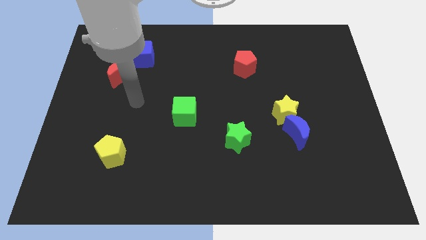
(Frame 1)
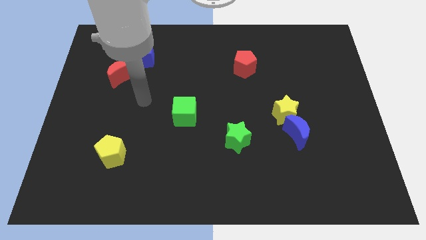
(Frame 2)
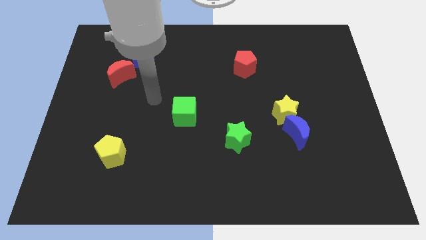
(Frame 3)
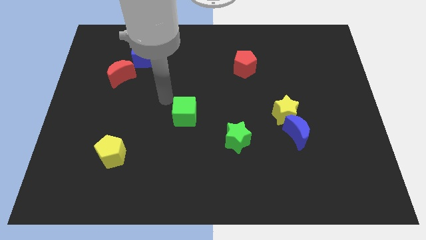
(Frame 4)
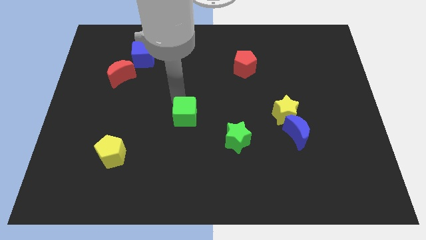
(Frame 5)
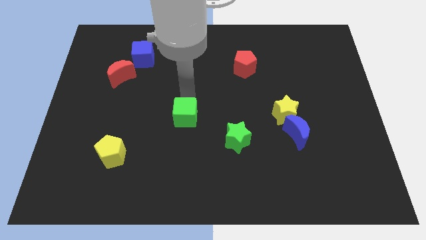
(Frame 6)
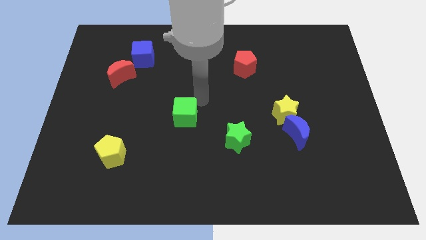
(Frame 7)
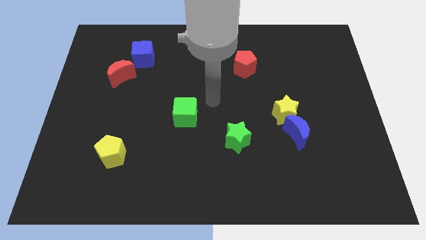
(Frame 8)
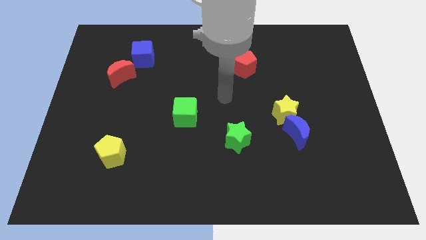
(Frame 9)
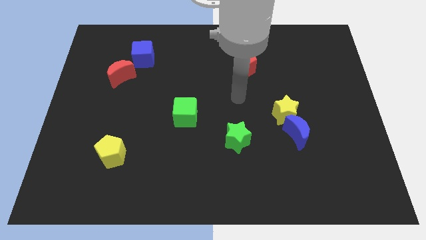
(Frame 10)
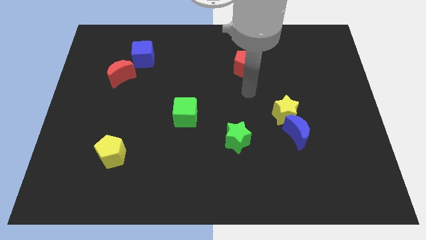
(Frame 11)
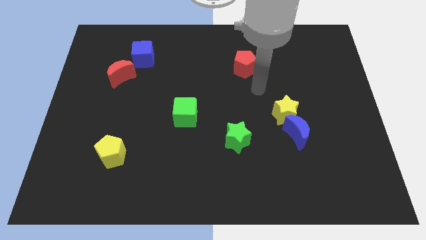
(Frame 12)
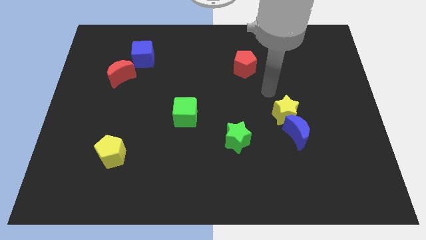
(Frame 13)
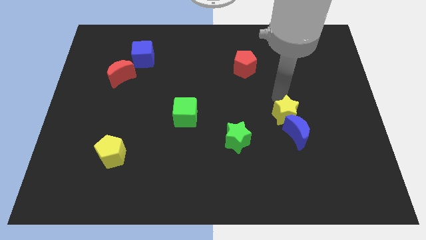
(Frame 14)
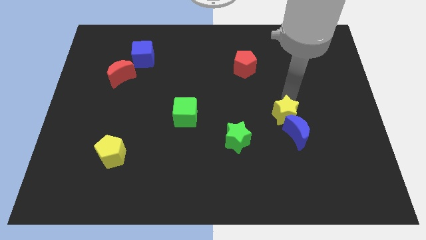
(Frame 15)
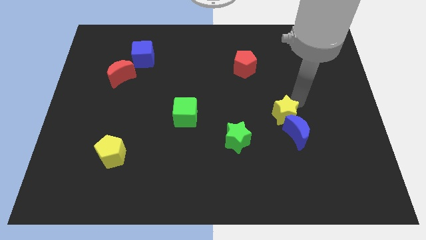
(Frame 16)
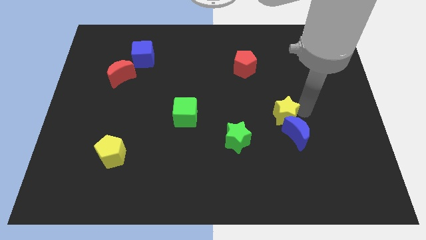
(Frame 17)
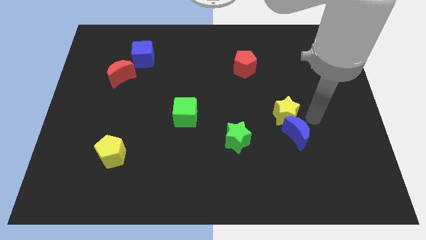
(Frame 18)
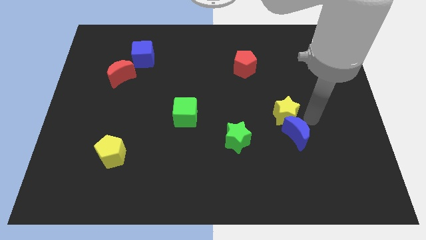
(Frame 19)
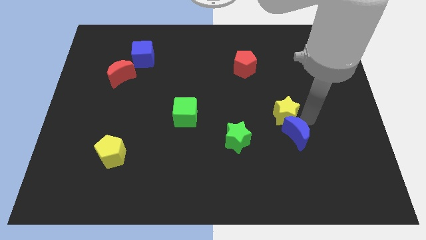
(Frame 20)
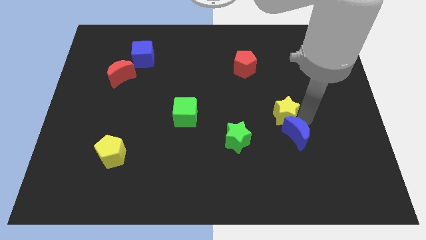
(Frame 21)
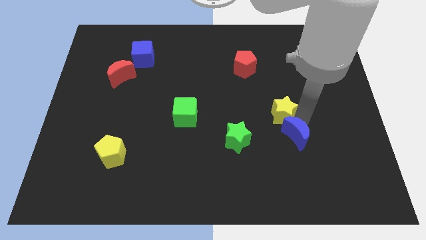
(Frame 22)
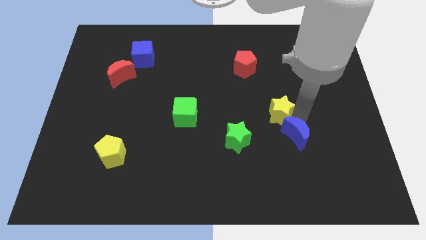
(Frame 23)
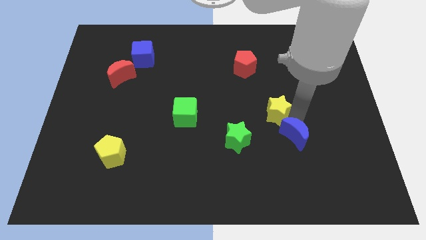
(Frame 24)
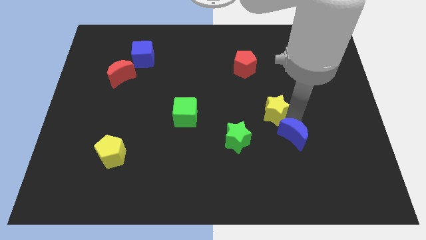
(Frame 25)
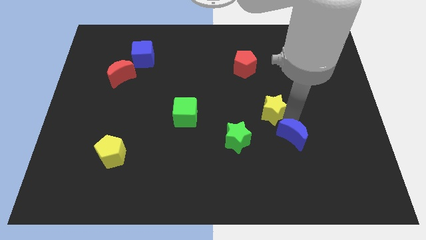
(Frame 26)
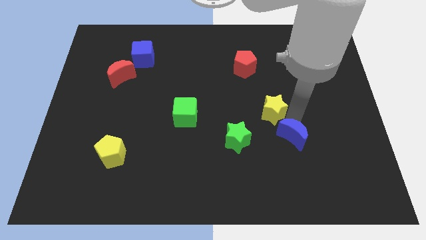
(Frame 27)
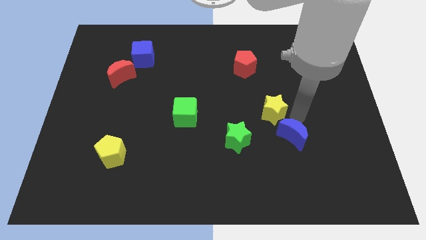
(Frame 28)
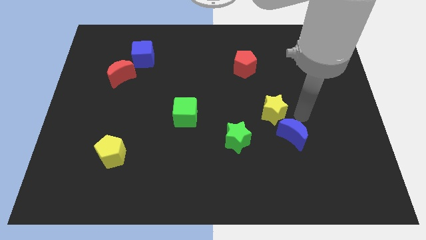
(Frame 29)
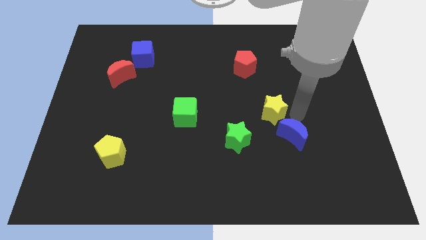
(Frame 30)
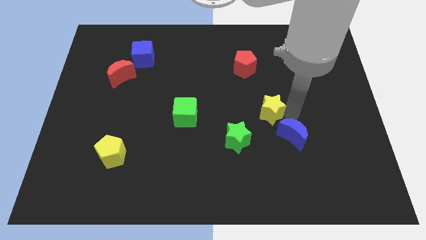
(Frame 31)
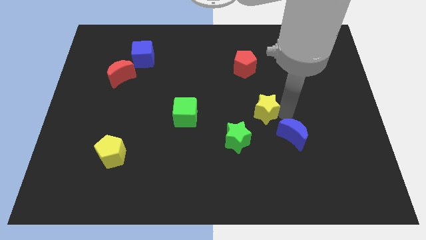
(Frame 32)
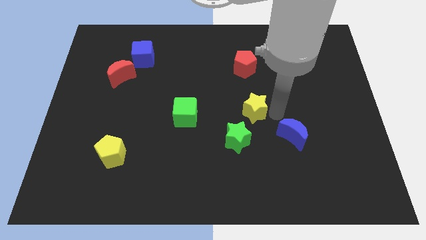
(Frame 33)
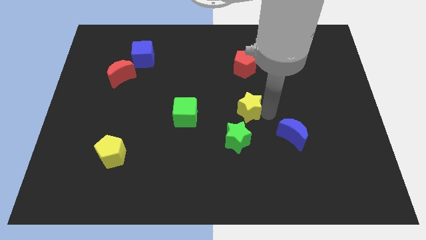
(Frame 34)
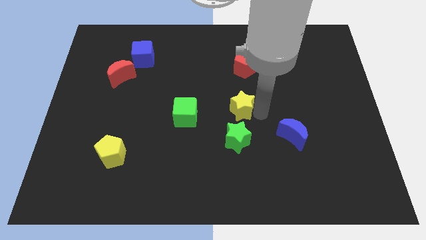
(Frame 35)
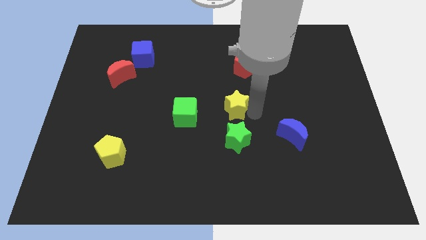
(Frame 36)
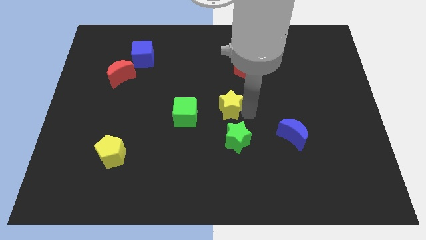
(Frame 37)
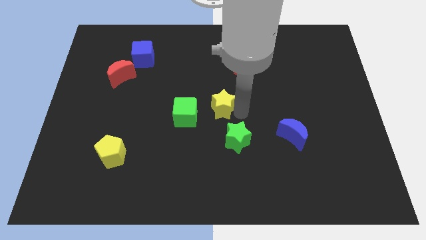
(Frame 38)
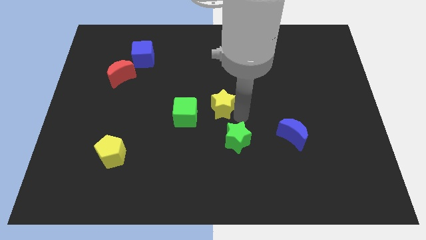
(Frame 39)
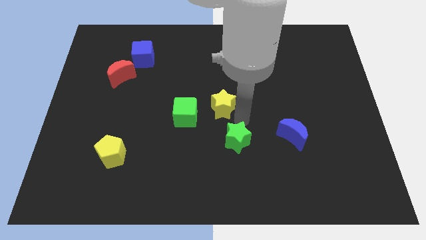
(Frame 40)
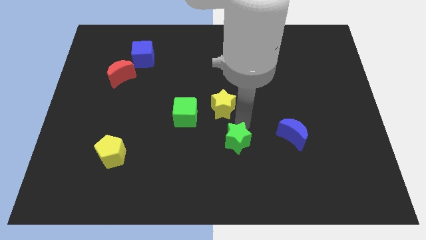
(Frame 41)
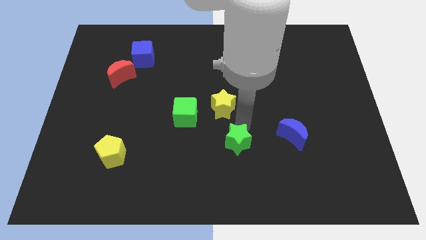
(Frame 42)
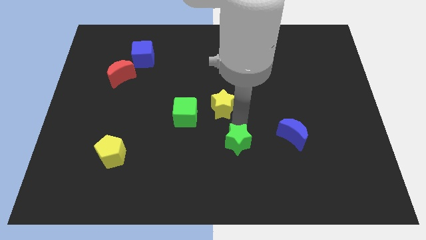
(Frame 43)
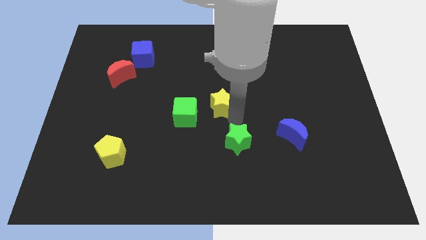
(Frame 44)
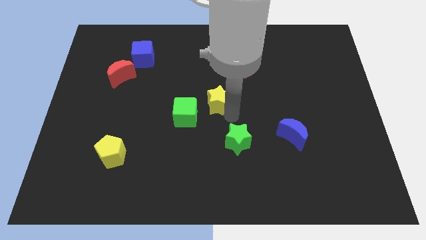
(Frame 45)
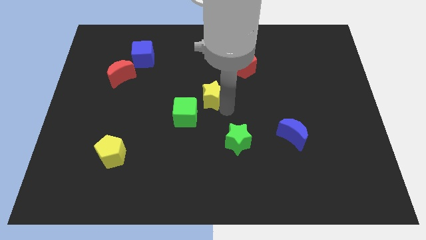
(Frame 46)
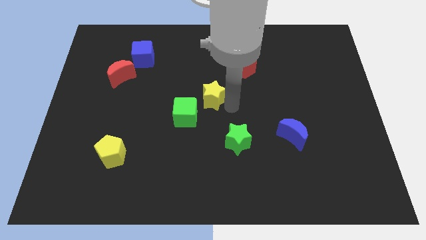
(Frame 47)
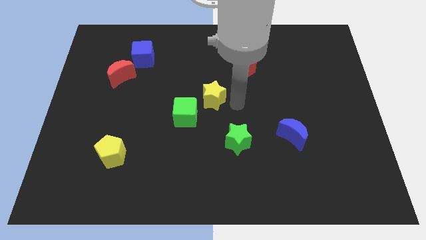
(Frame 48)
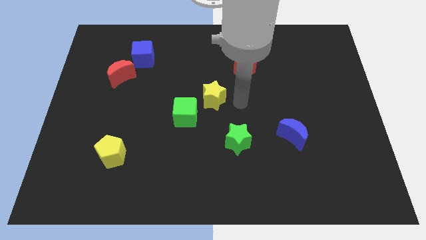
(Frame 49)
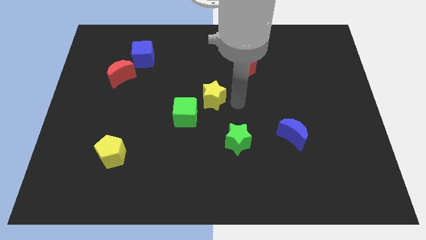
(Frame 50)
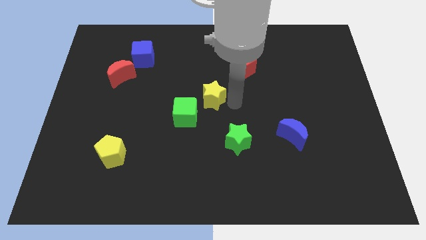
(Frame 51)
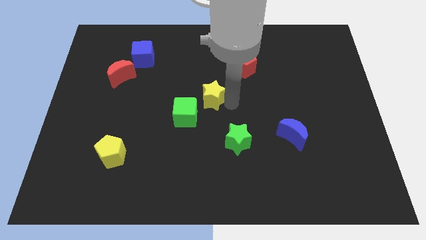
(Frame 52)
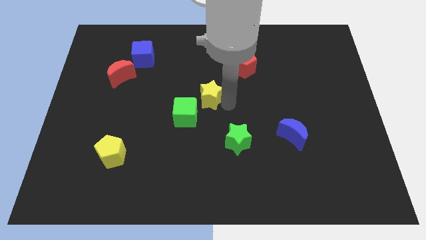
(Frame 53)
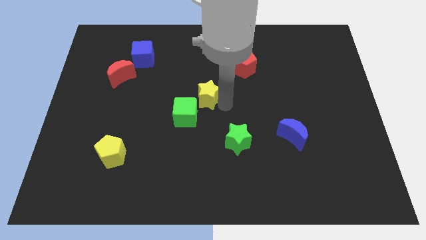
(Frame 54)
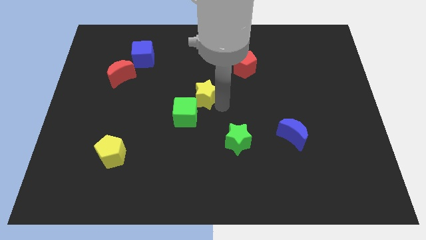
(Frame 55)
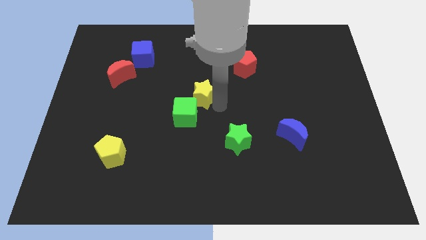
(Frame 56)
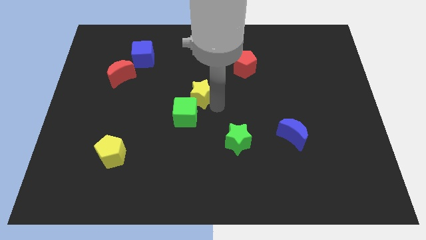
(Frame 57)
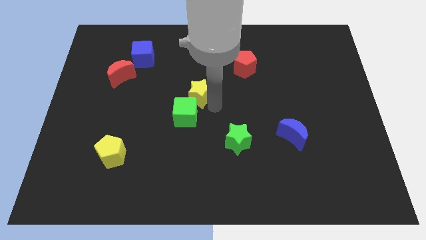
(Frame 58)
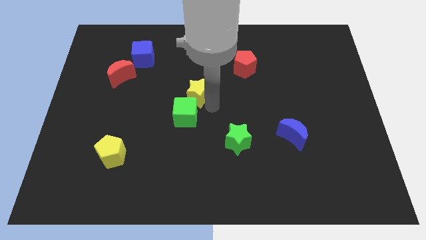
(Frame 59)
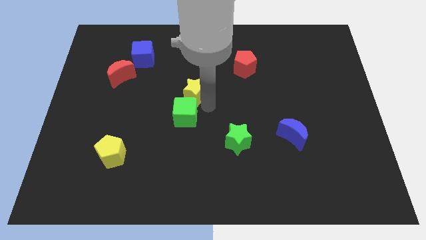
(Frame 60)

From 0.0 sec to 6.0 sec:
push the yellow star to the left

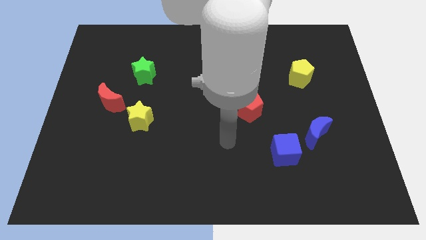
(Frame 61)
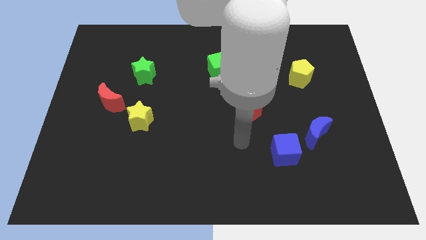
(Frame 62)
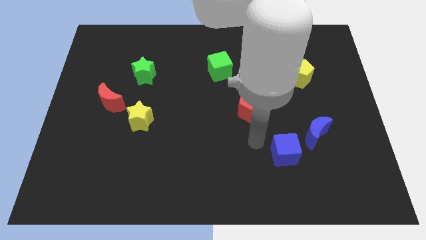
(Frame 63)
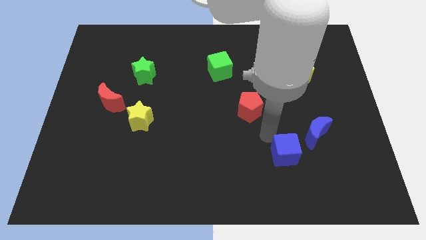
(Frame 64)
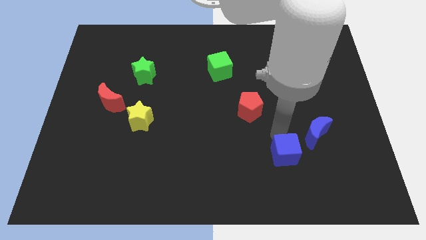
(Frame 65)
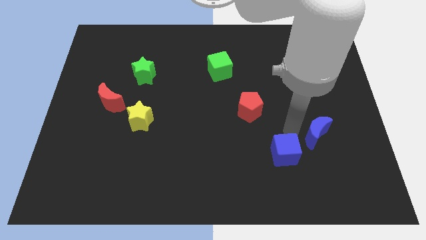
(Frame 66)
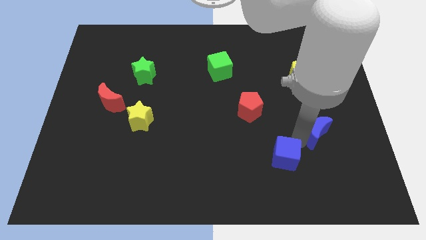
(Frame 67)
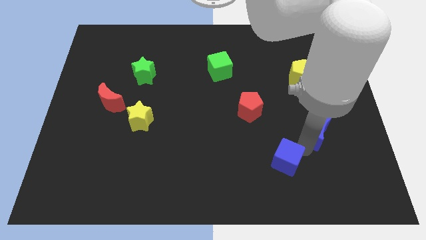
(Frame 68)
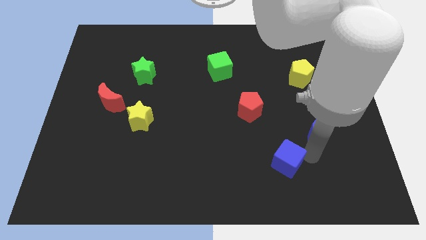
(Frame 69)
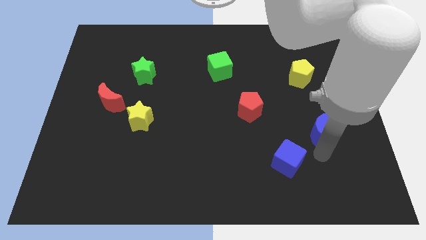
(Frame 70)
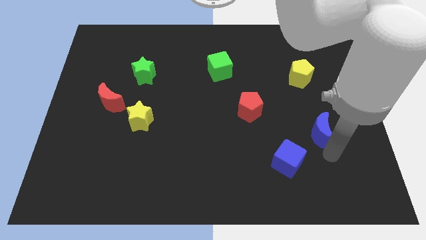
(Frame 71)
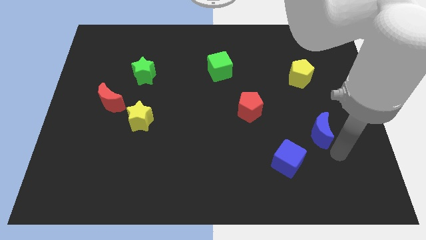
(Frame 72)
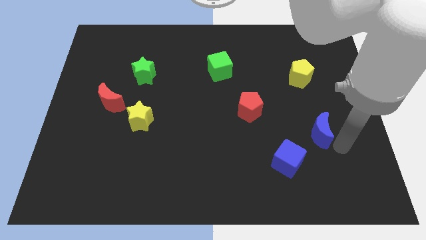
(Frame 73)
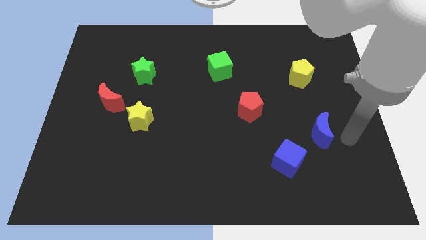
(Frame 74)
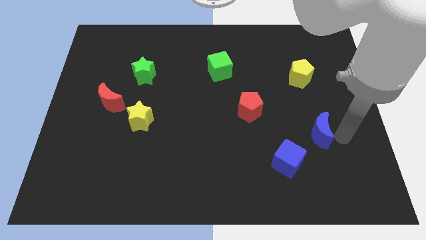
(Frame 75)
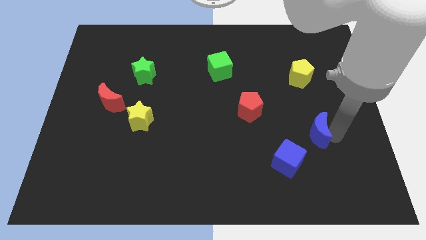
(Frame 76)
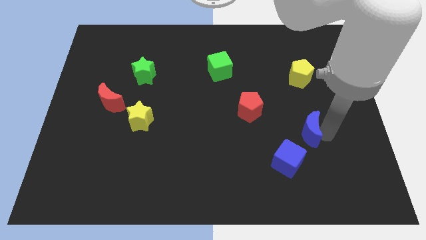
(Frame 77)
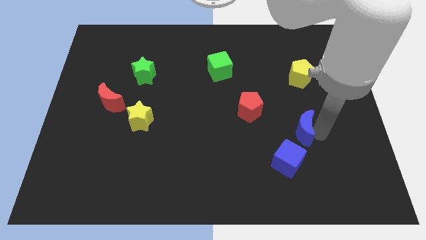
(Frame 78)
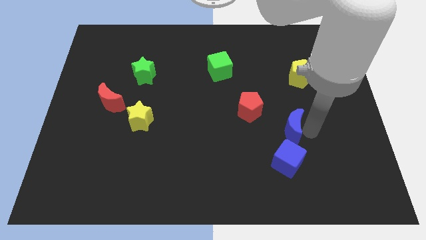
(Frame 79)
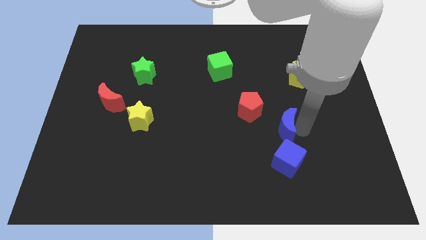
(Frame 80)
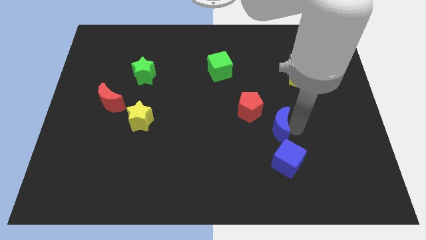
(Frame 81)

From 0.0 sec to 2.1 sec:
move the blue moon a little bit left
